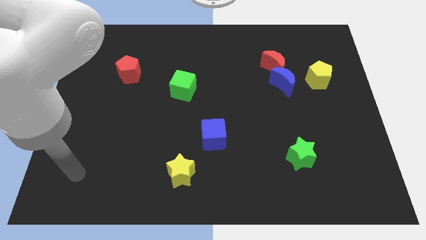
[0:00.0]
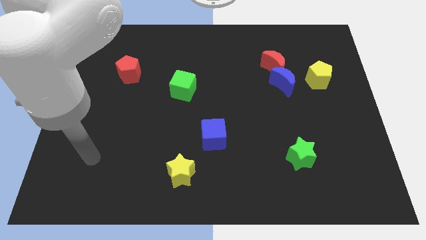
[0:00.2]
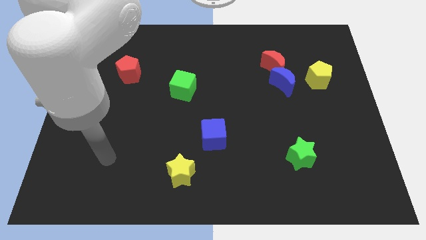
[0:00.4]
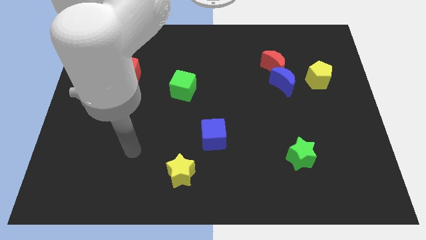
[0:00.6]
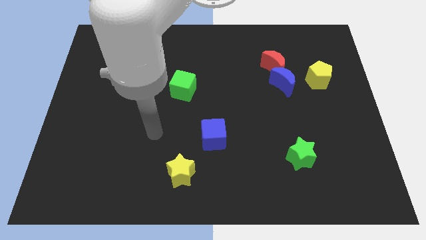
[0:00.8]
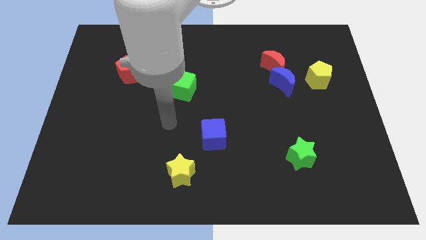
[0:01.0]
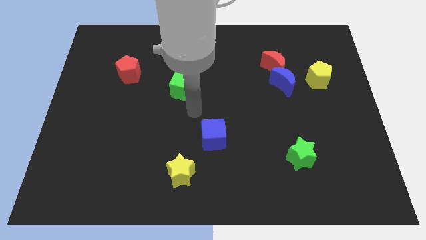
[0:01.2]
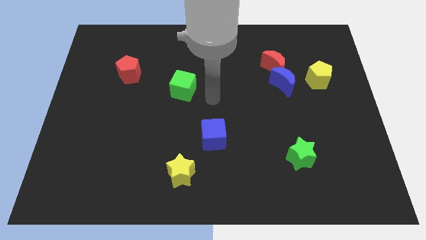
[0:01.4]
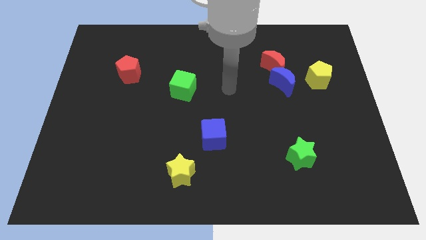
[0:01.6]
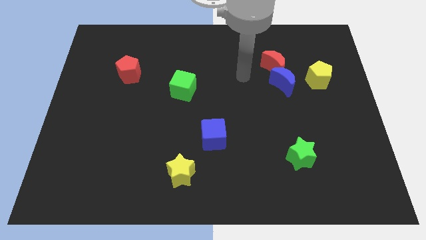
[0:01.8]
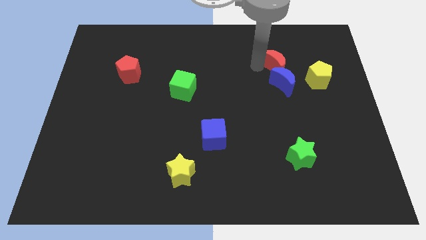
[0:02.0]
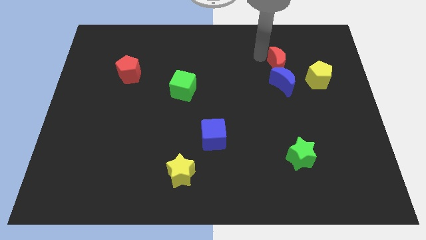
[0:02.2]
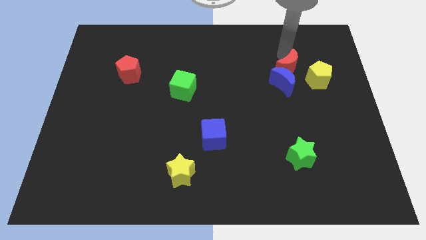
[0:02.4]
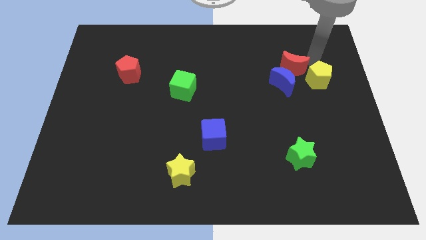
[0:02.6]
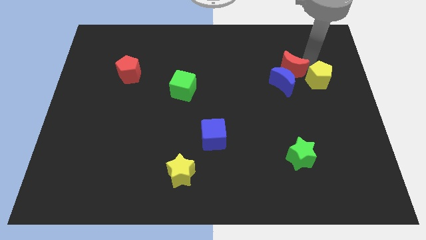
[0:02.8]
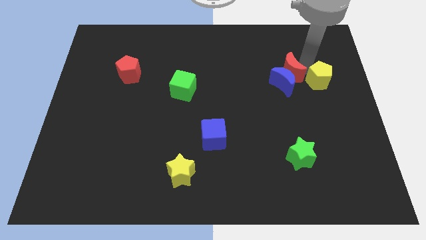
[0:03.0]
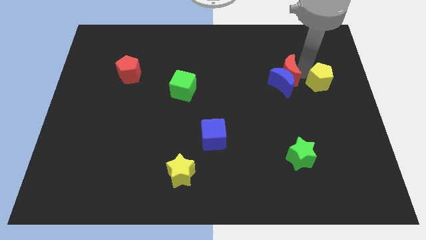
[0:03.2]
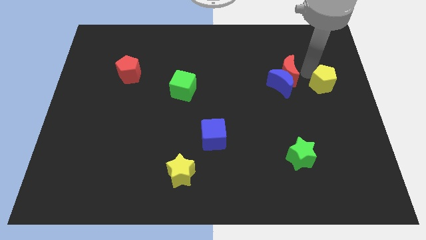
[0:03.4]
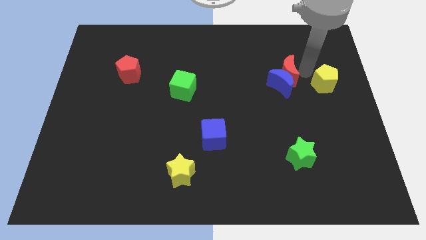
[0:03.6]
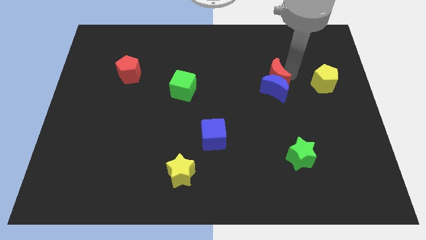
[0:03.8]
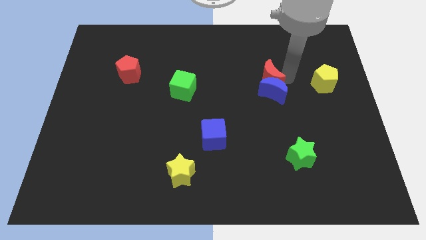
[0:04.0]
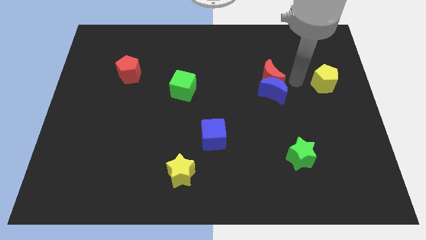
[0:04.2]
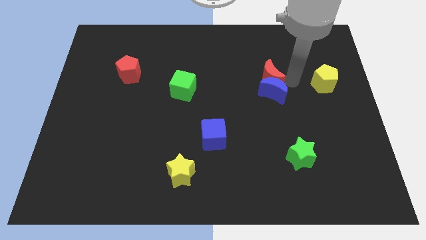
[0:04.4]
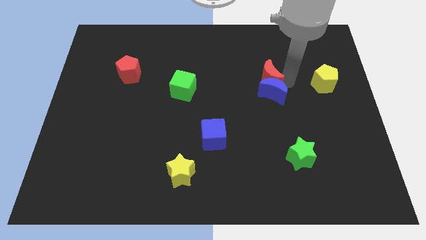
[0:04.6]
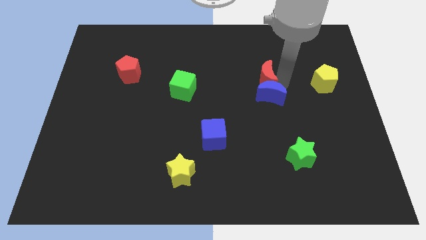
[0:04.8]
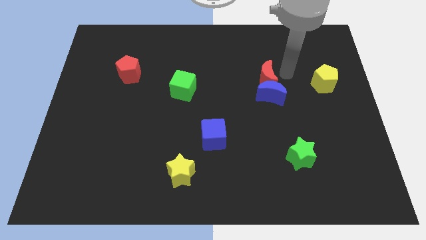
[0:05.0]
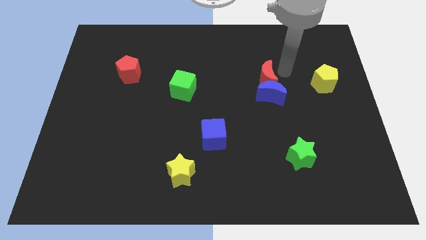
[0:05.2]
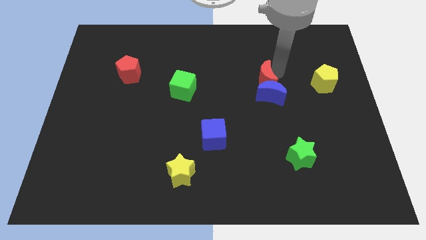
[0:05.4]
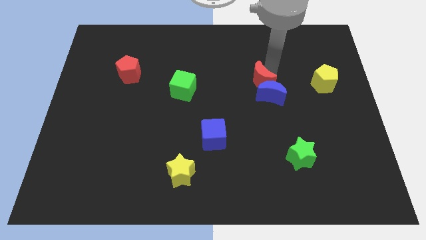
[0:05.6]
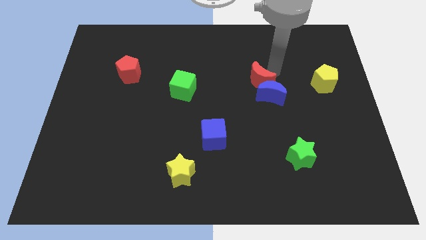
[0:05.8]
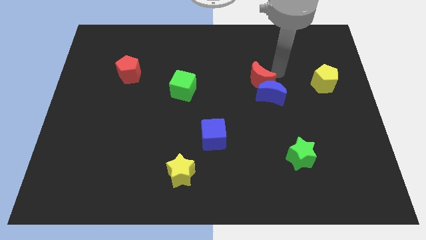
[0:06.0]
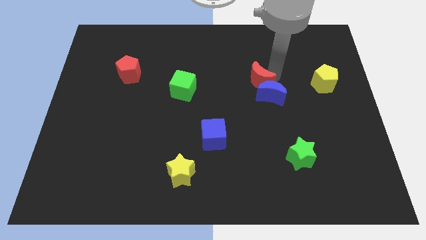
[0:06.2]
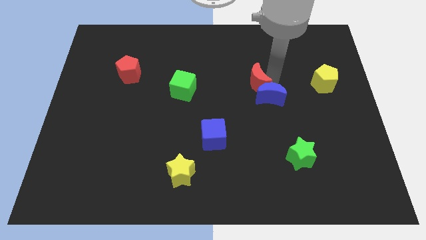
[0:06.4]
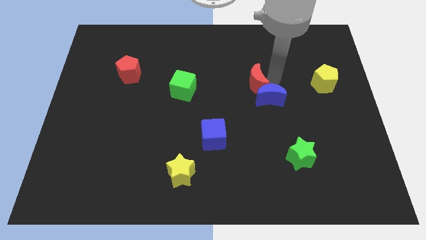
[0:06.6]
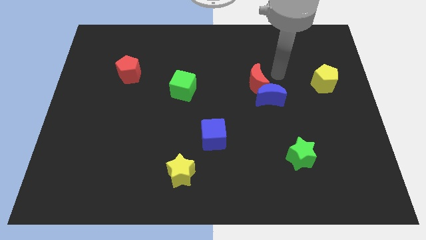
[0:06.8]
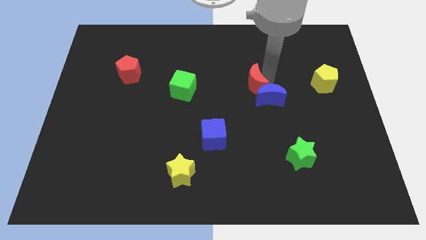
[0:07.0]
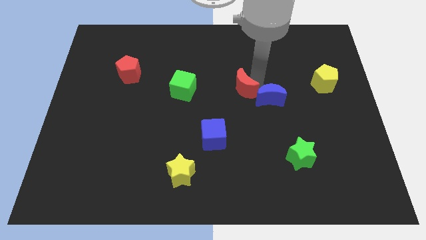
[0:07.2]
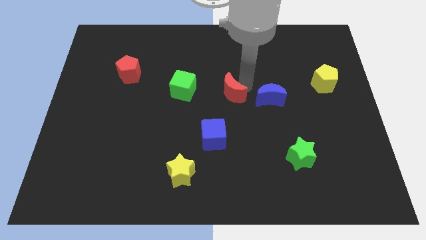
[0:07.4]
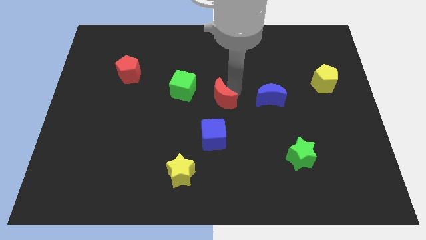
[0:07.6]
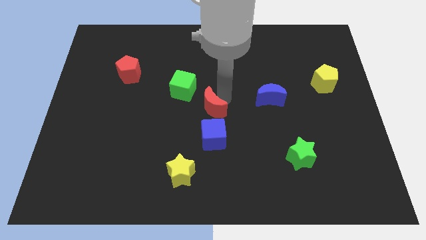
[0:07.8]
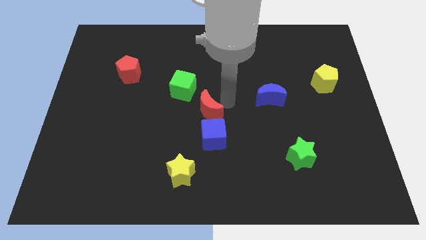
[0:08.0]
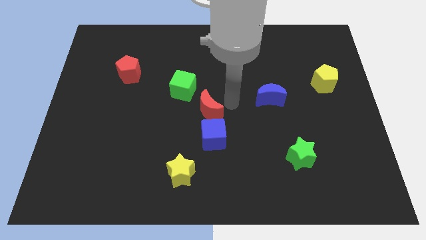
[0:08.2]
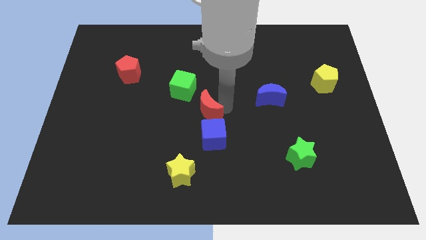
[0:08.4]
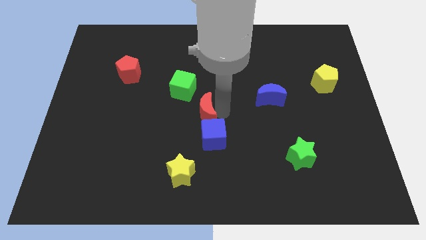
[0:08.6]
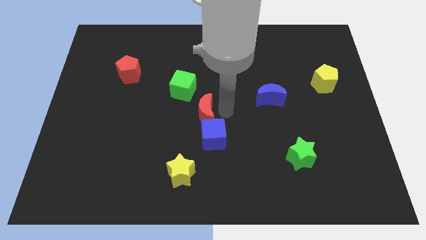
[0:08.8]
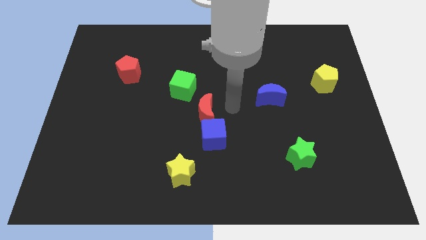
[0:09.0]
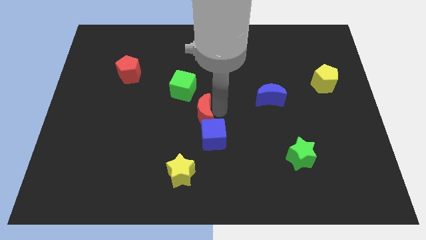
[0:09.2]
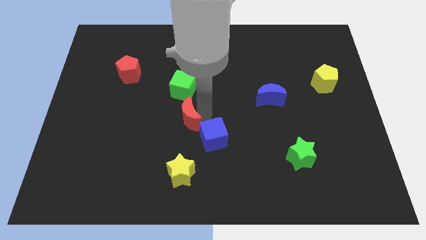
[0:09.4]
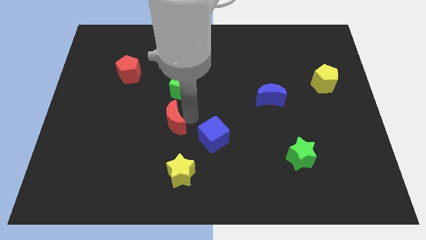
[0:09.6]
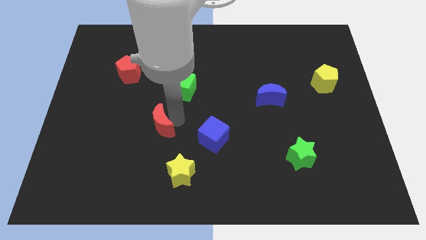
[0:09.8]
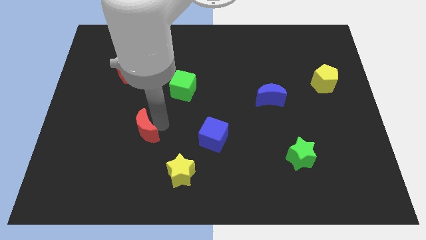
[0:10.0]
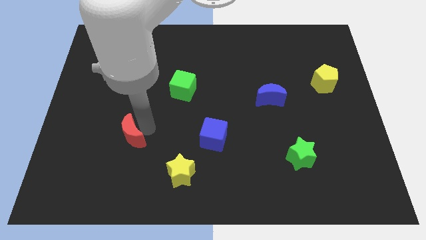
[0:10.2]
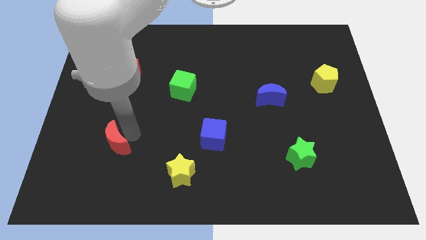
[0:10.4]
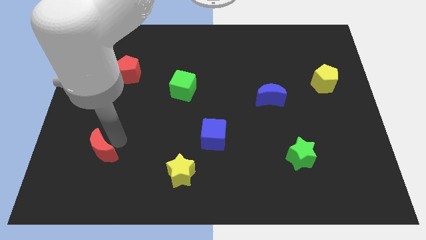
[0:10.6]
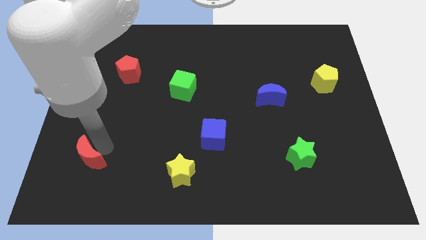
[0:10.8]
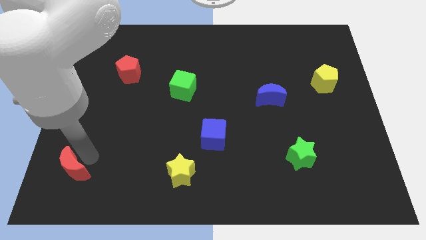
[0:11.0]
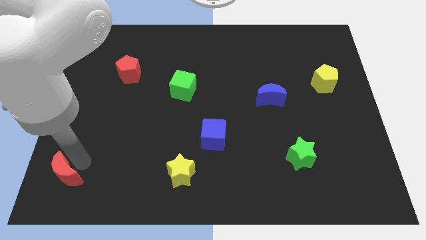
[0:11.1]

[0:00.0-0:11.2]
push the red moon to the lower left corner
